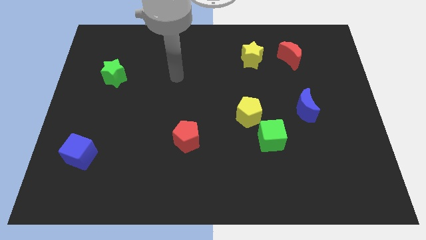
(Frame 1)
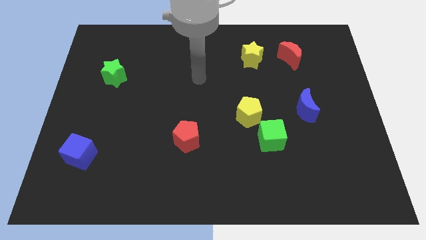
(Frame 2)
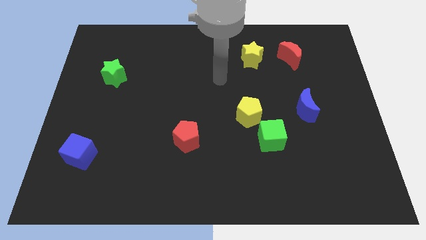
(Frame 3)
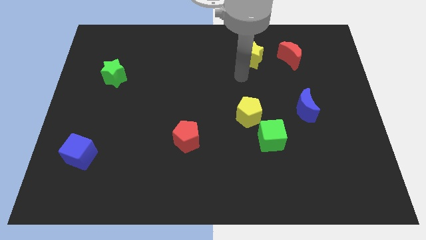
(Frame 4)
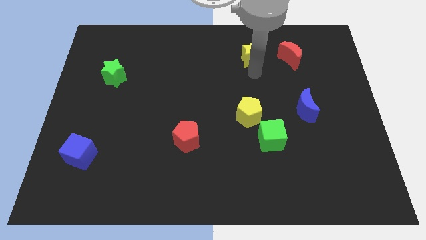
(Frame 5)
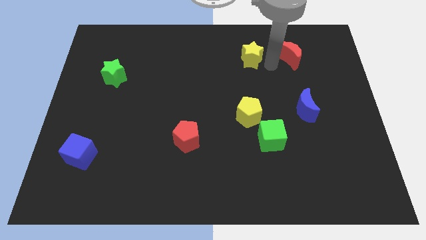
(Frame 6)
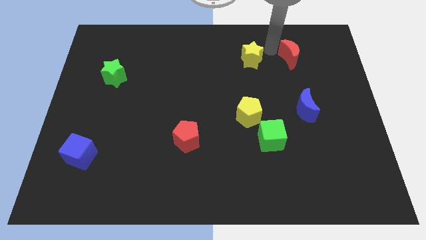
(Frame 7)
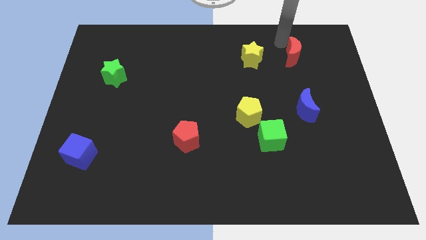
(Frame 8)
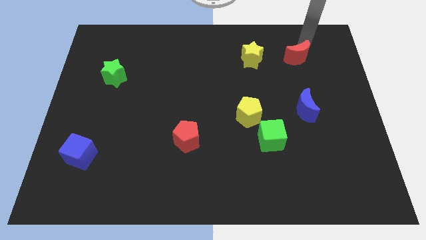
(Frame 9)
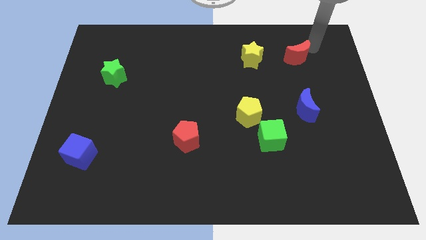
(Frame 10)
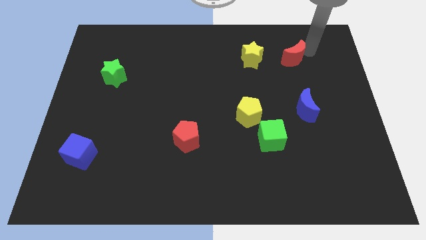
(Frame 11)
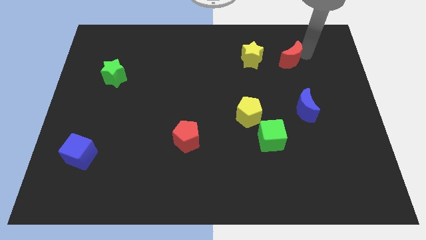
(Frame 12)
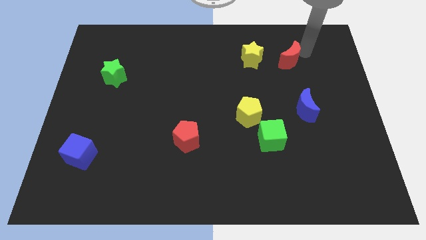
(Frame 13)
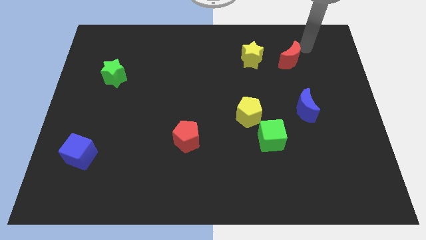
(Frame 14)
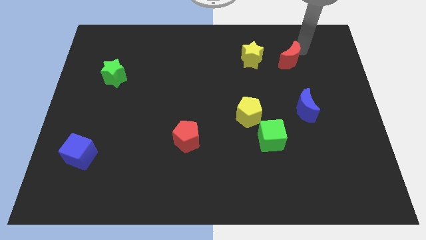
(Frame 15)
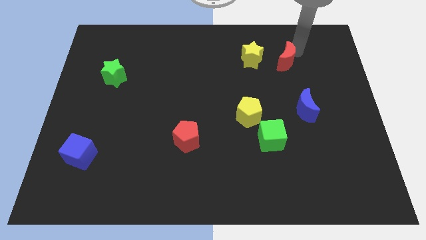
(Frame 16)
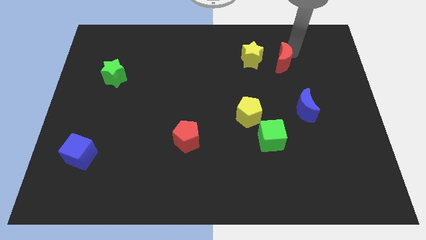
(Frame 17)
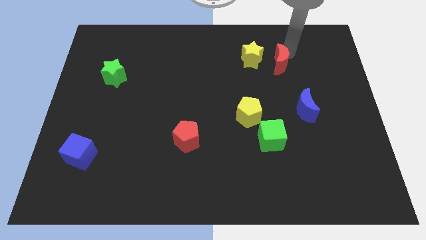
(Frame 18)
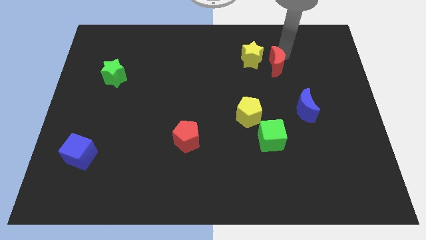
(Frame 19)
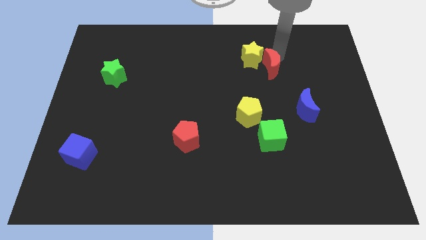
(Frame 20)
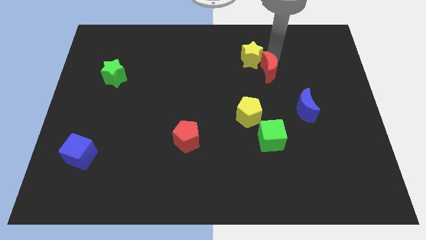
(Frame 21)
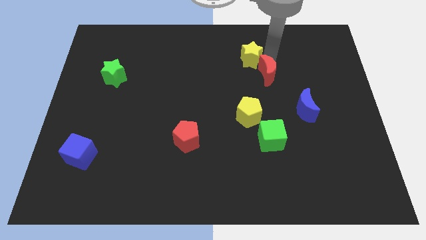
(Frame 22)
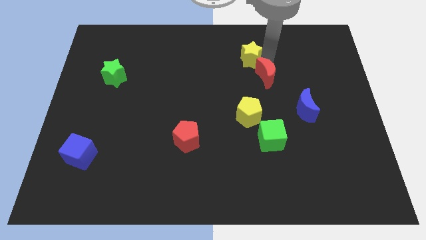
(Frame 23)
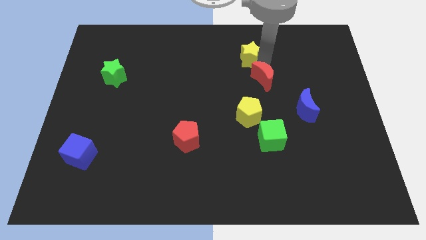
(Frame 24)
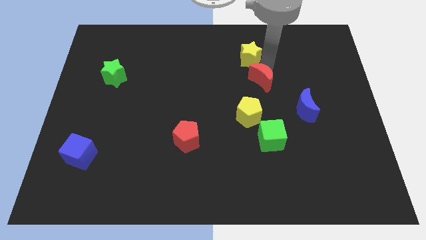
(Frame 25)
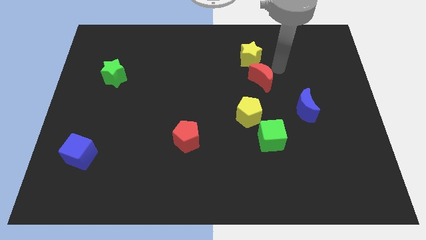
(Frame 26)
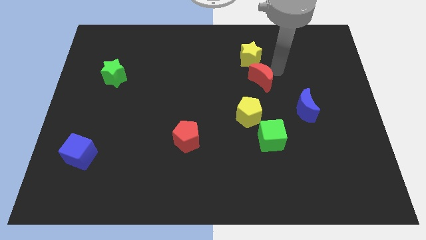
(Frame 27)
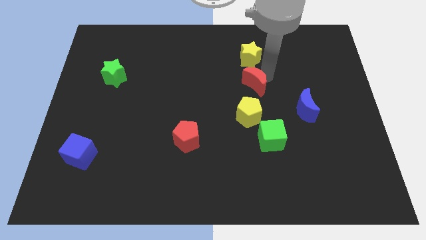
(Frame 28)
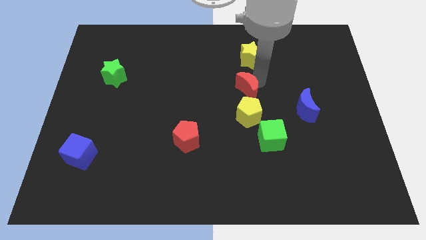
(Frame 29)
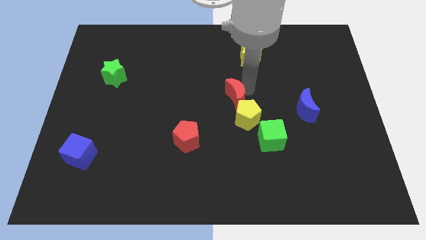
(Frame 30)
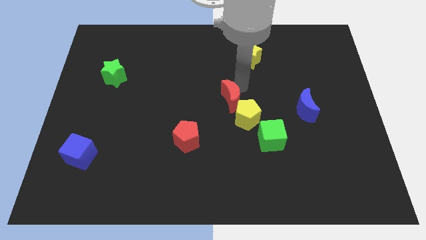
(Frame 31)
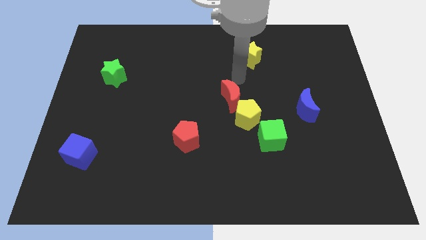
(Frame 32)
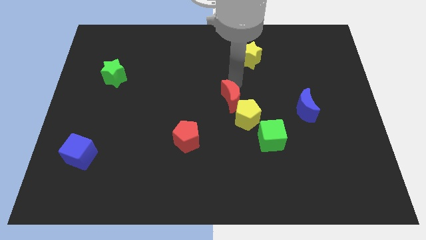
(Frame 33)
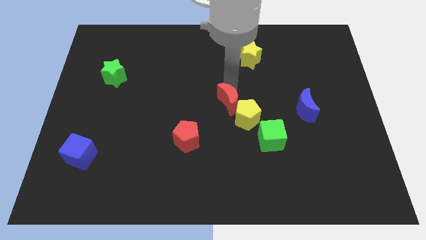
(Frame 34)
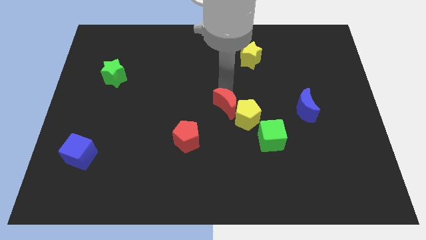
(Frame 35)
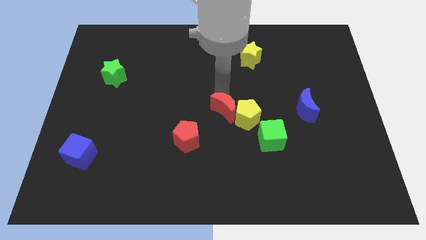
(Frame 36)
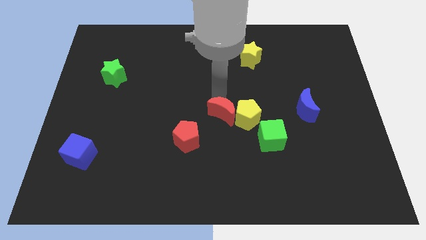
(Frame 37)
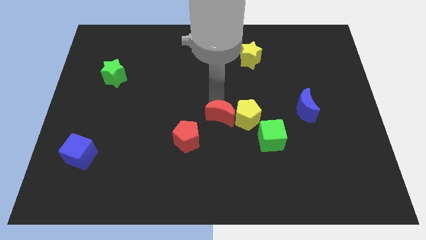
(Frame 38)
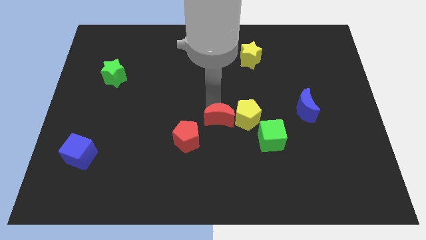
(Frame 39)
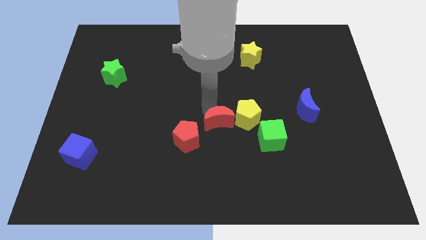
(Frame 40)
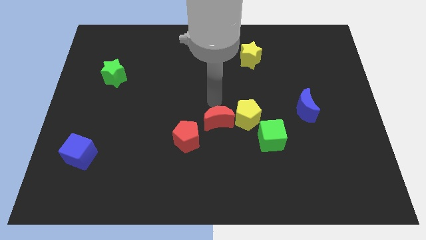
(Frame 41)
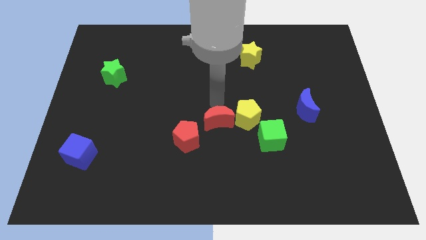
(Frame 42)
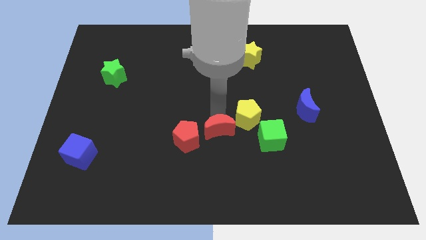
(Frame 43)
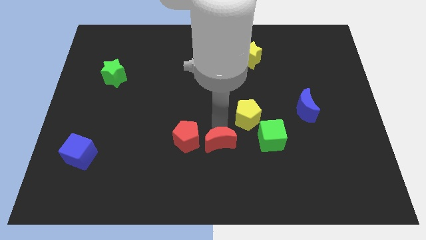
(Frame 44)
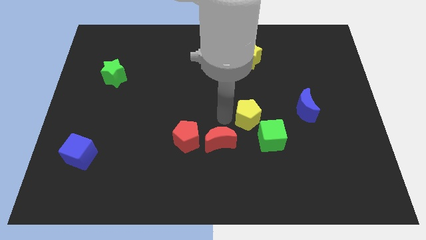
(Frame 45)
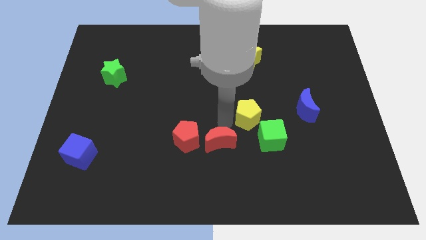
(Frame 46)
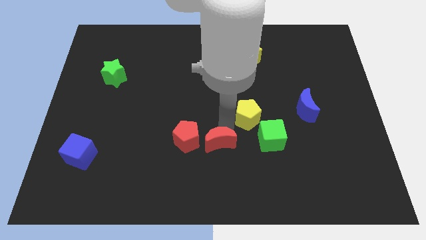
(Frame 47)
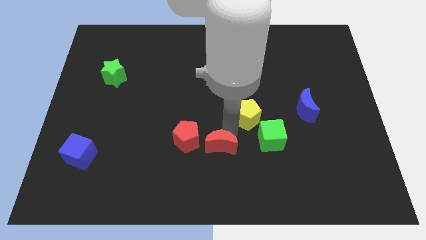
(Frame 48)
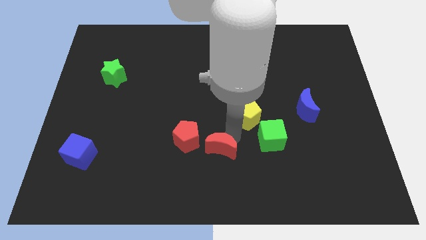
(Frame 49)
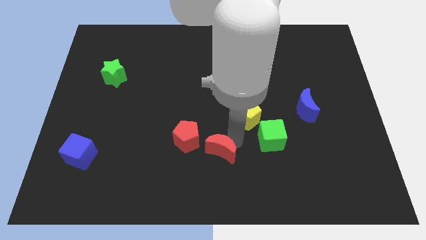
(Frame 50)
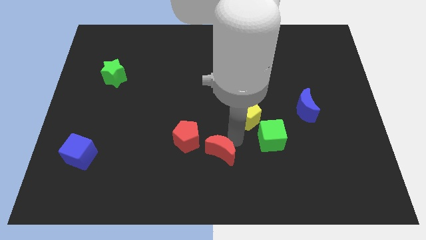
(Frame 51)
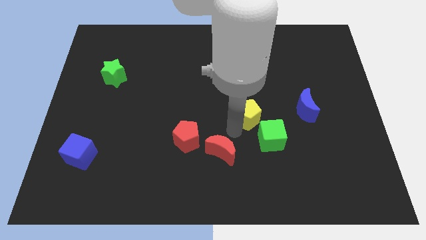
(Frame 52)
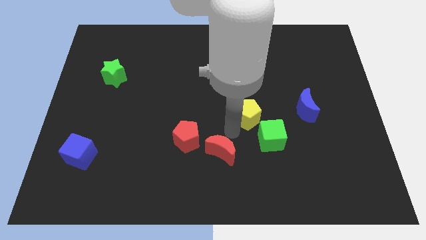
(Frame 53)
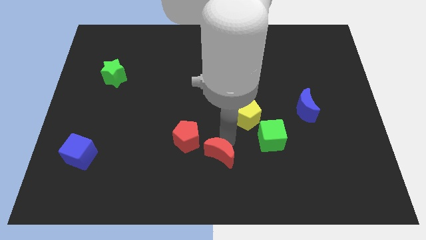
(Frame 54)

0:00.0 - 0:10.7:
slide the red moon to the bottom side
